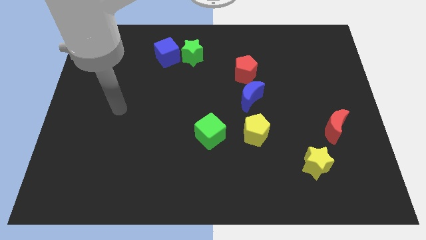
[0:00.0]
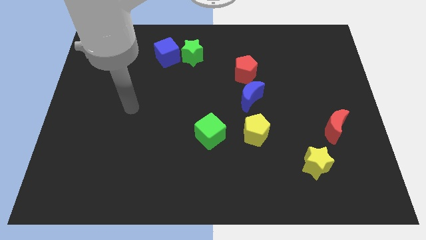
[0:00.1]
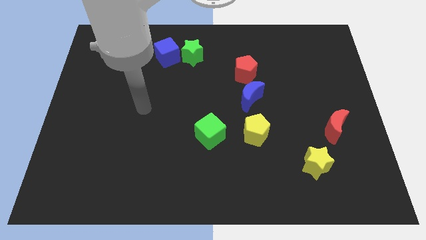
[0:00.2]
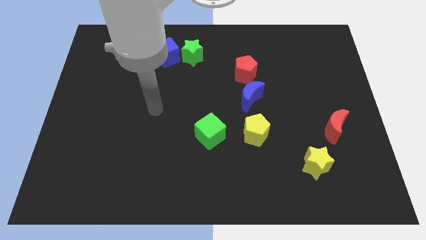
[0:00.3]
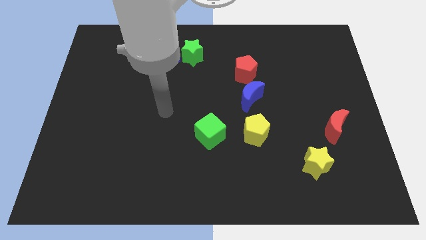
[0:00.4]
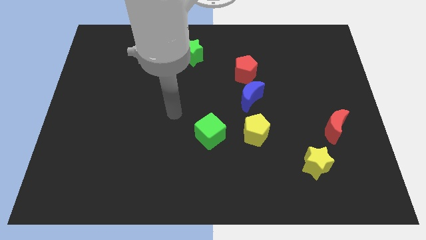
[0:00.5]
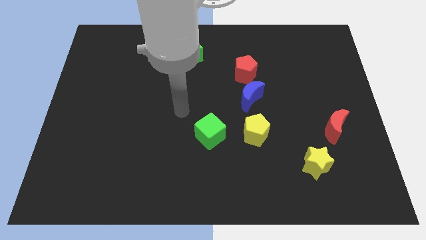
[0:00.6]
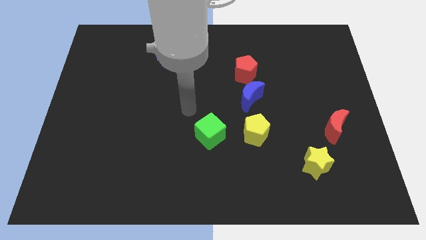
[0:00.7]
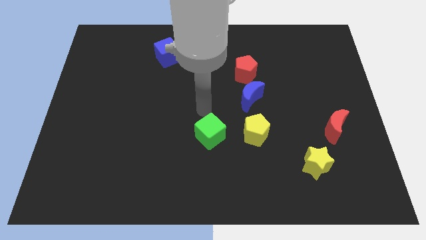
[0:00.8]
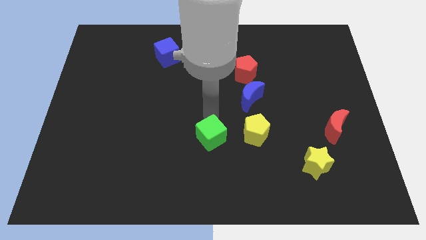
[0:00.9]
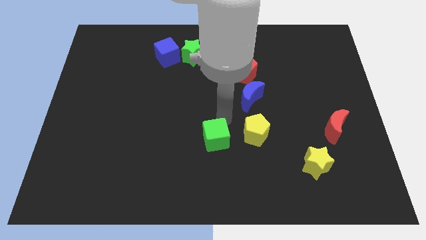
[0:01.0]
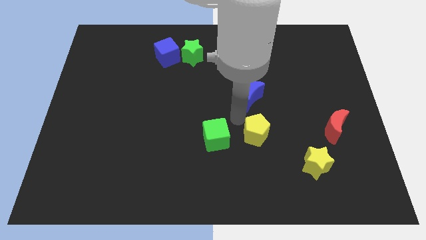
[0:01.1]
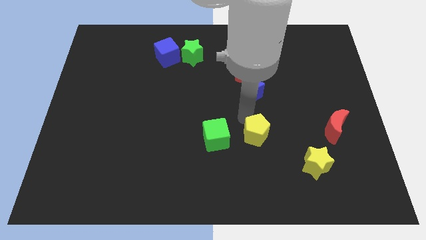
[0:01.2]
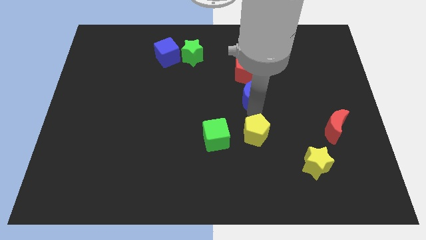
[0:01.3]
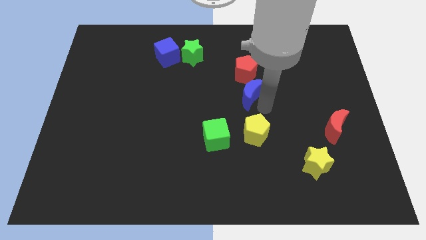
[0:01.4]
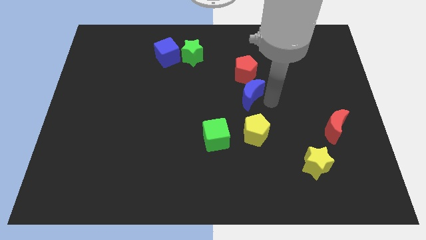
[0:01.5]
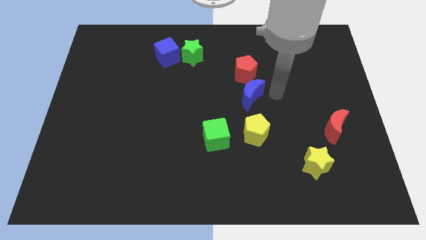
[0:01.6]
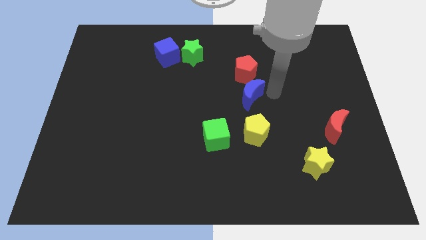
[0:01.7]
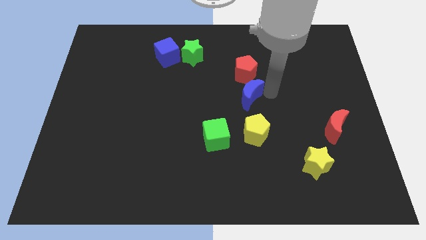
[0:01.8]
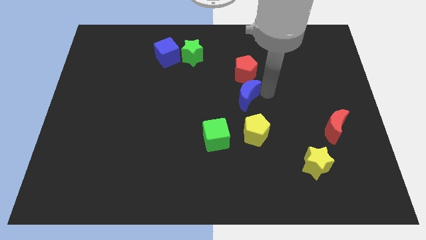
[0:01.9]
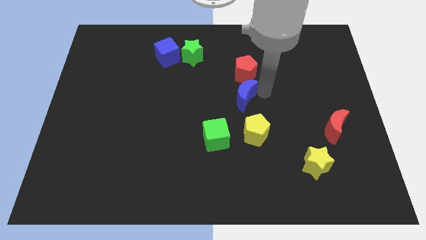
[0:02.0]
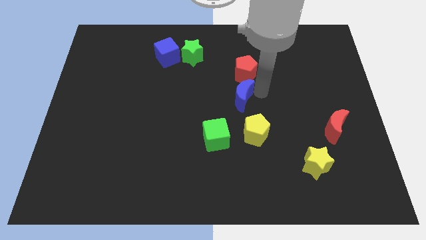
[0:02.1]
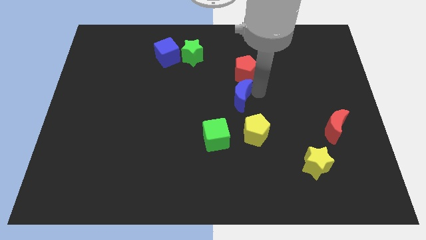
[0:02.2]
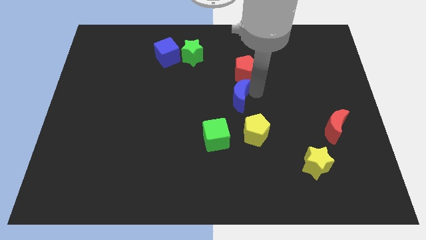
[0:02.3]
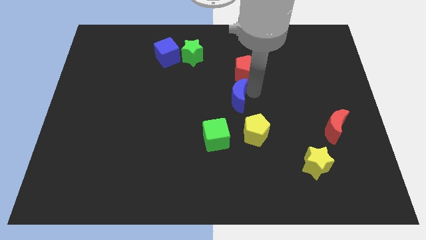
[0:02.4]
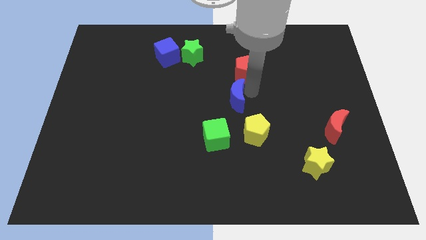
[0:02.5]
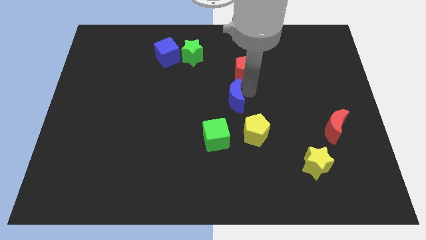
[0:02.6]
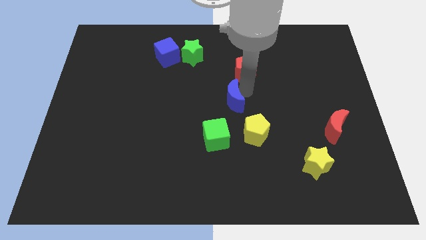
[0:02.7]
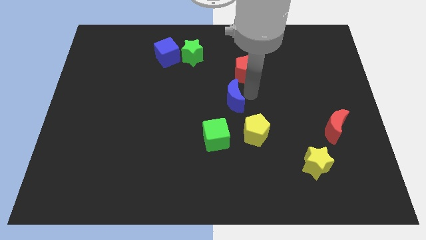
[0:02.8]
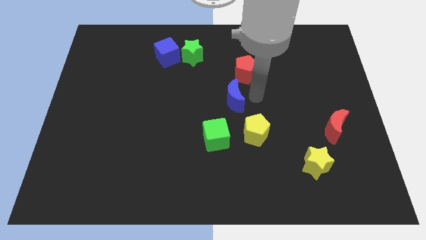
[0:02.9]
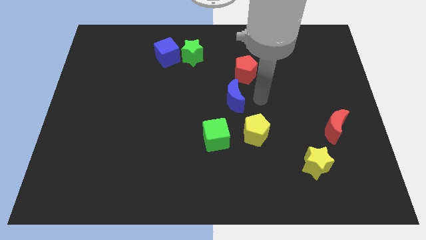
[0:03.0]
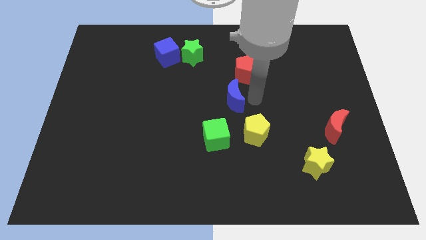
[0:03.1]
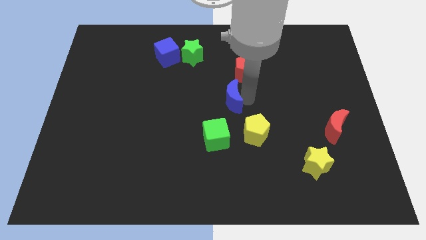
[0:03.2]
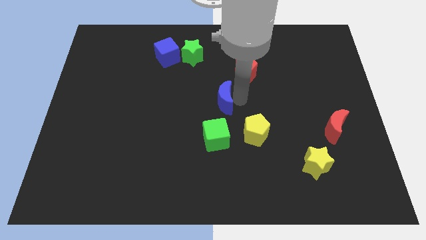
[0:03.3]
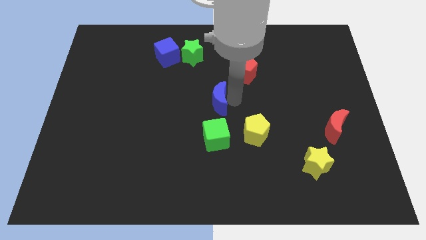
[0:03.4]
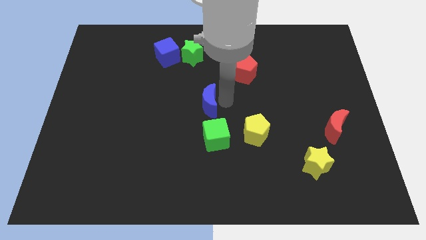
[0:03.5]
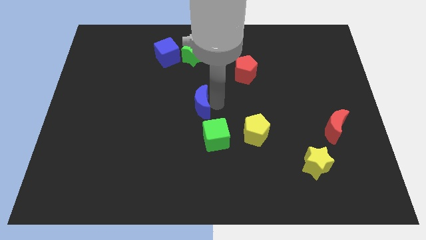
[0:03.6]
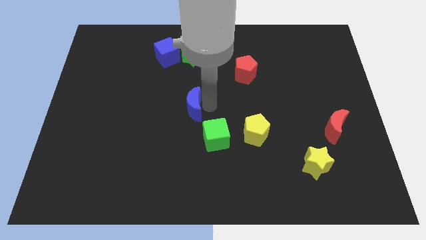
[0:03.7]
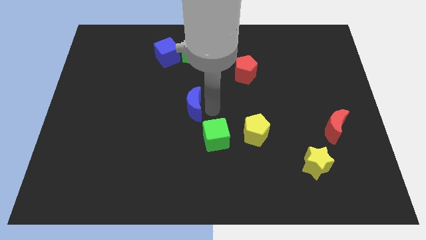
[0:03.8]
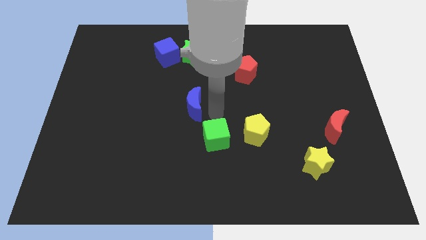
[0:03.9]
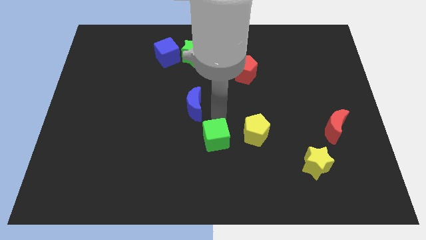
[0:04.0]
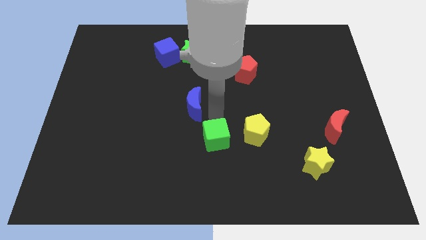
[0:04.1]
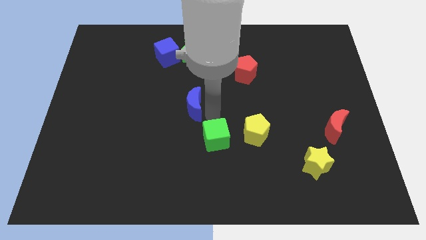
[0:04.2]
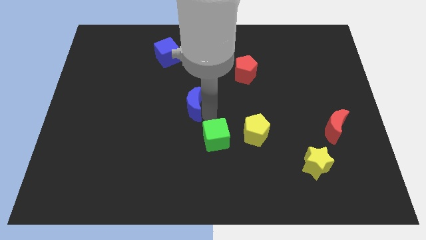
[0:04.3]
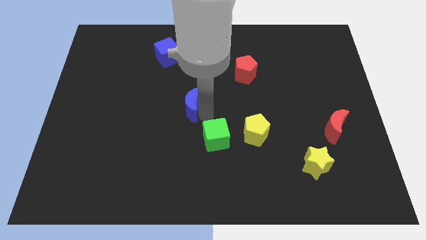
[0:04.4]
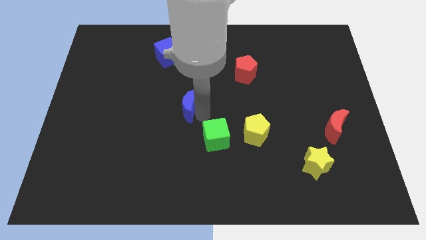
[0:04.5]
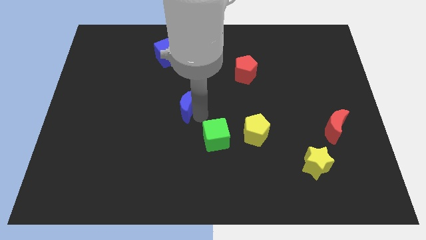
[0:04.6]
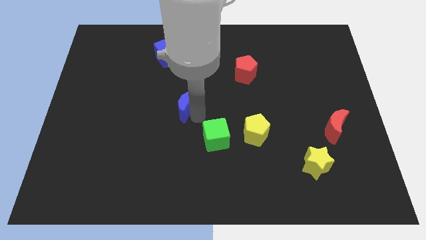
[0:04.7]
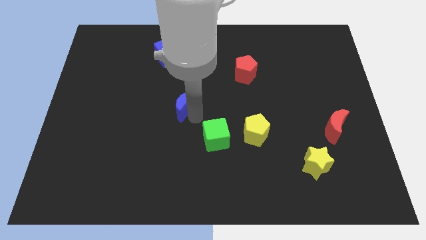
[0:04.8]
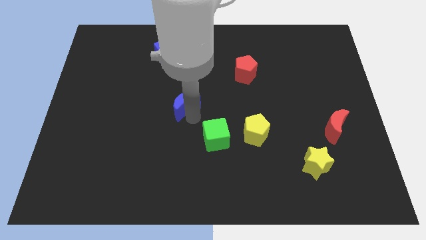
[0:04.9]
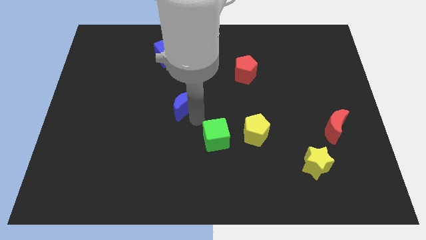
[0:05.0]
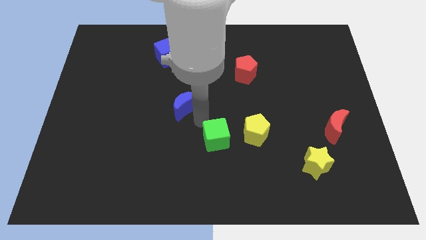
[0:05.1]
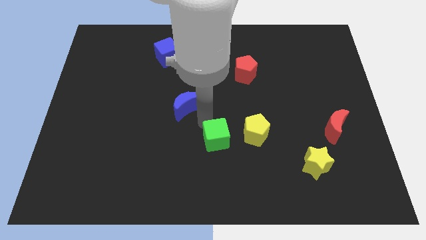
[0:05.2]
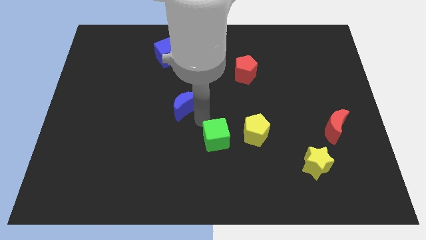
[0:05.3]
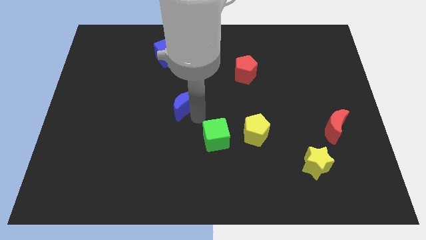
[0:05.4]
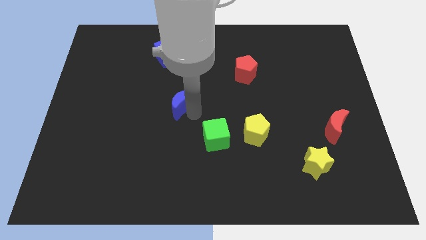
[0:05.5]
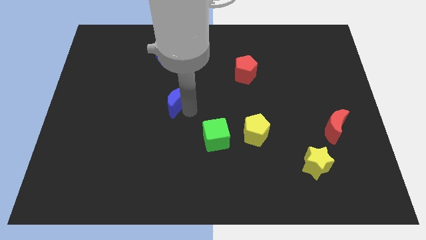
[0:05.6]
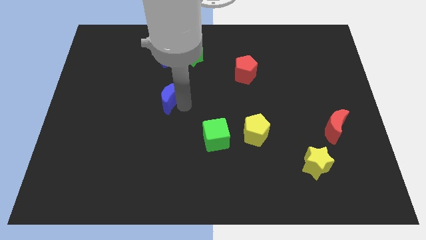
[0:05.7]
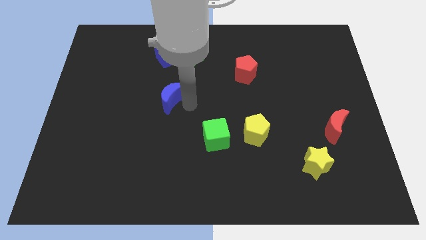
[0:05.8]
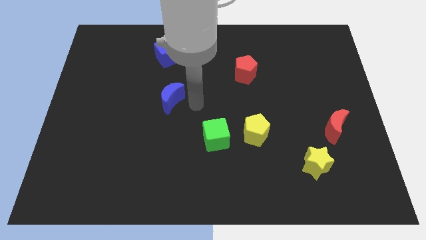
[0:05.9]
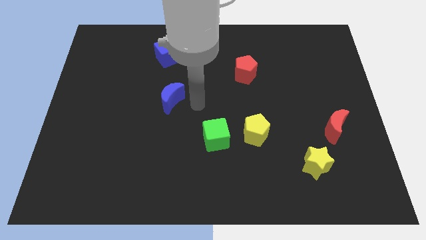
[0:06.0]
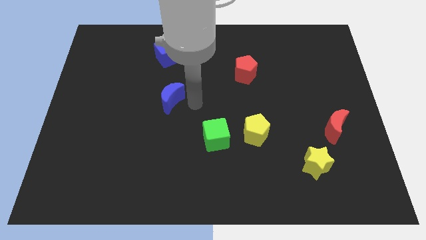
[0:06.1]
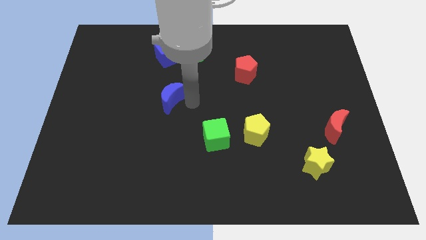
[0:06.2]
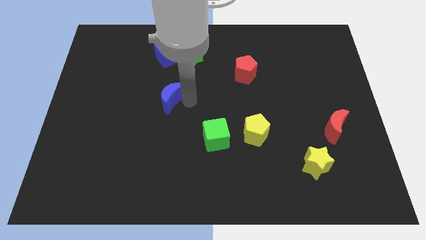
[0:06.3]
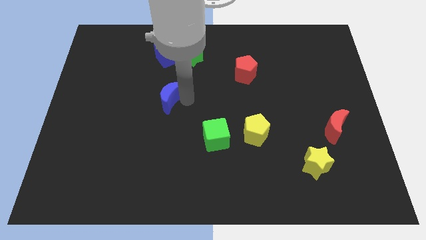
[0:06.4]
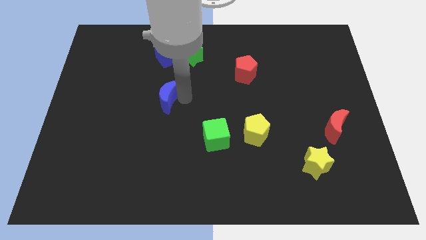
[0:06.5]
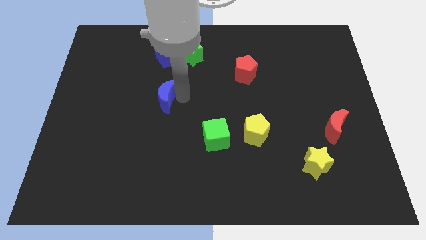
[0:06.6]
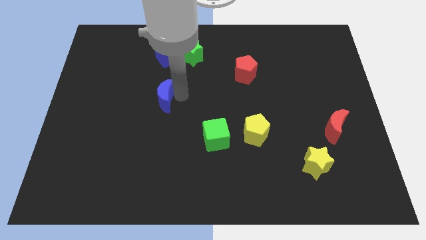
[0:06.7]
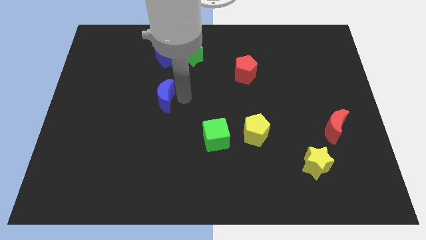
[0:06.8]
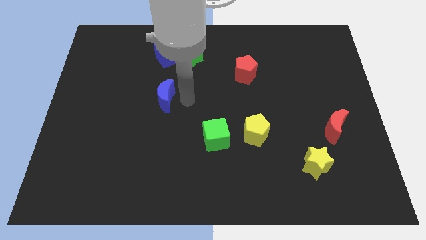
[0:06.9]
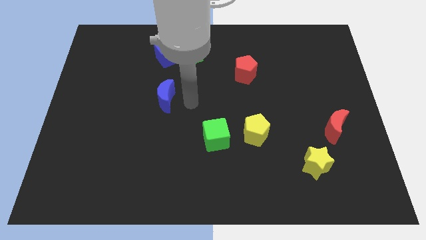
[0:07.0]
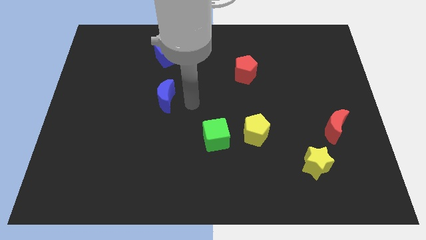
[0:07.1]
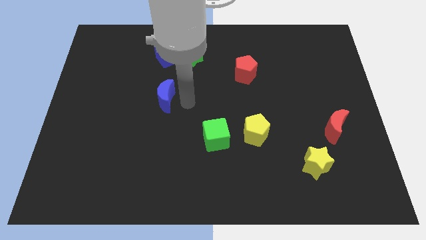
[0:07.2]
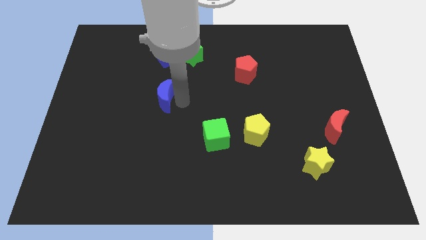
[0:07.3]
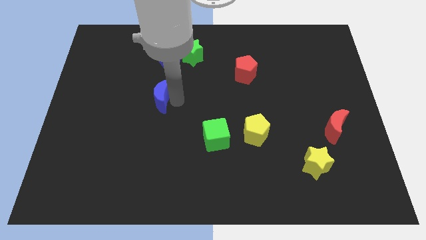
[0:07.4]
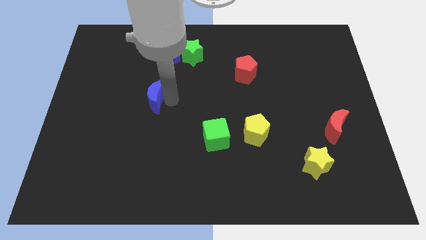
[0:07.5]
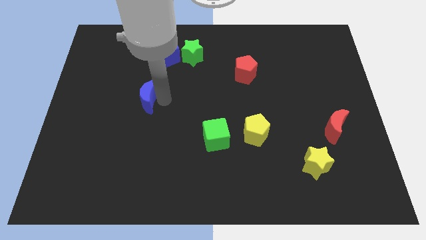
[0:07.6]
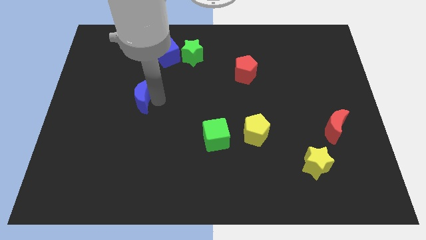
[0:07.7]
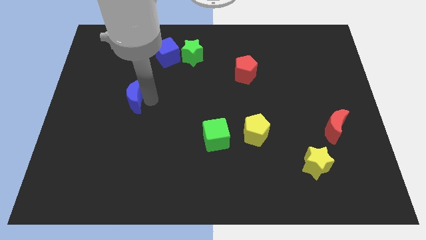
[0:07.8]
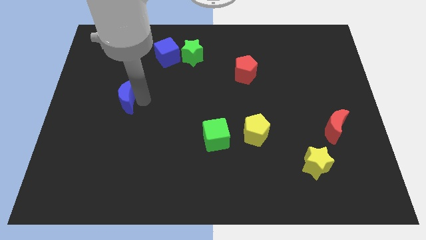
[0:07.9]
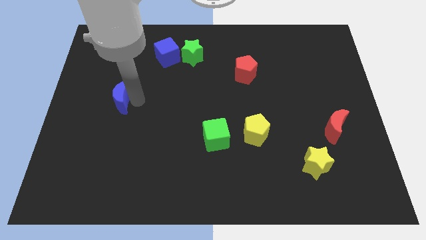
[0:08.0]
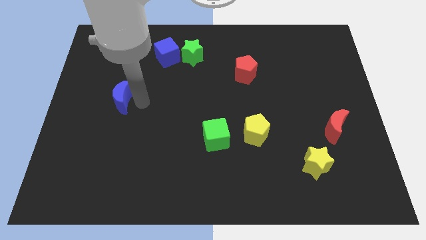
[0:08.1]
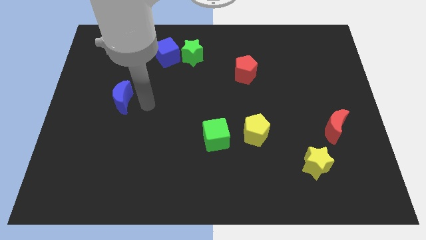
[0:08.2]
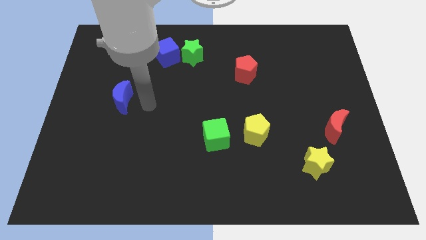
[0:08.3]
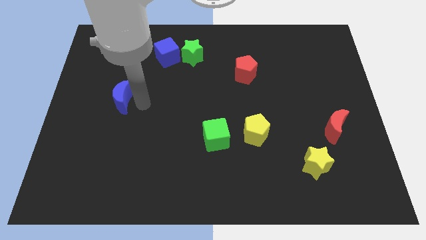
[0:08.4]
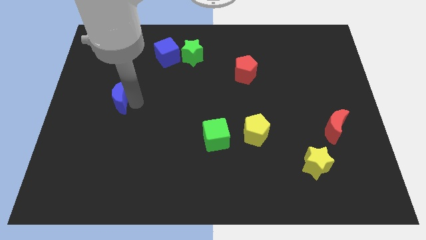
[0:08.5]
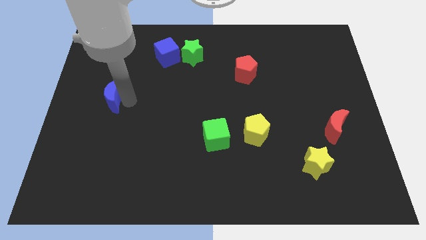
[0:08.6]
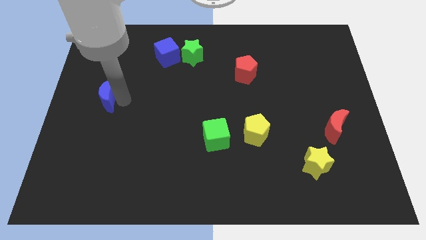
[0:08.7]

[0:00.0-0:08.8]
put the blue moon to the left side of the board
